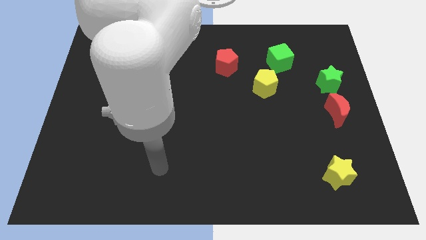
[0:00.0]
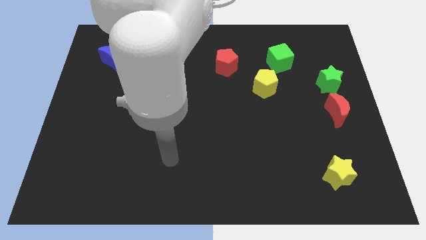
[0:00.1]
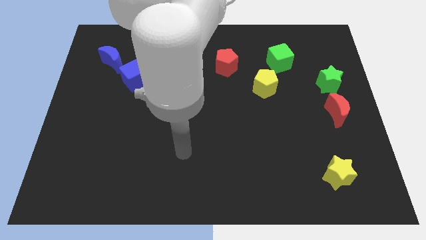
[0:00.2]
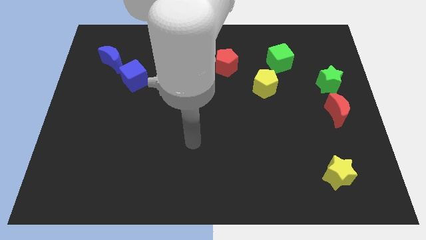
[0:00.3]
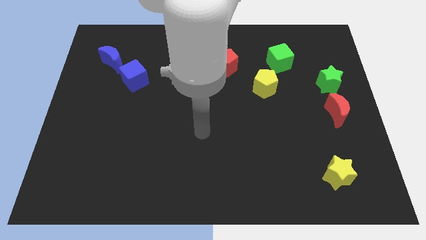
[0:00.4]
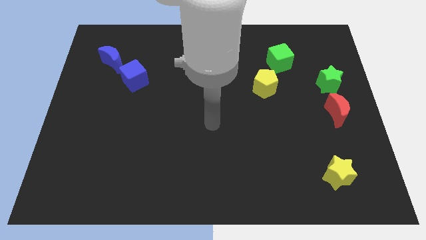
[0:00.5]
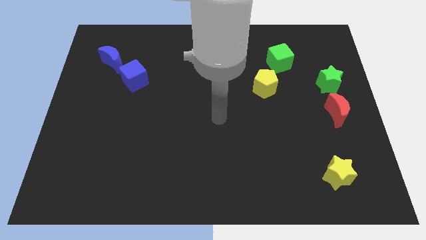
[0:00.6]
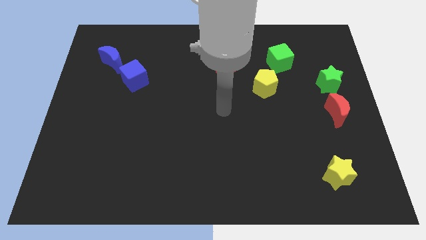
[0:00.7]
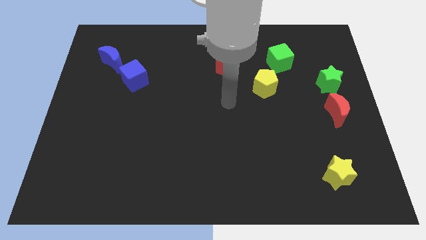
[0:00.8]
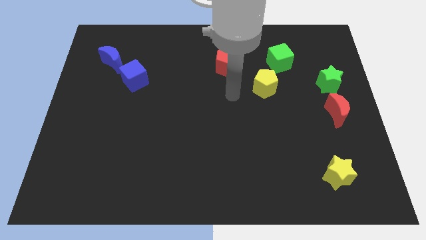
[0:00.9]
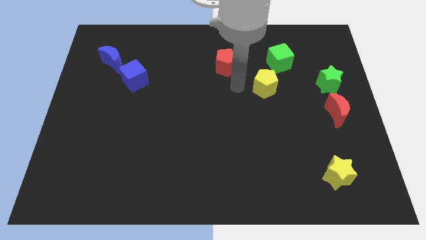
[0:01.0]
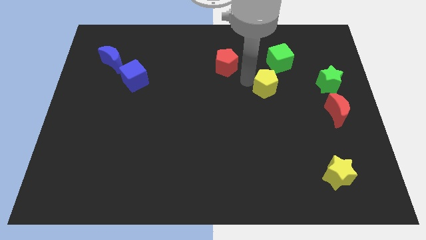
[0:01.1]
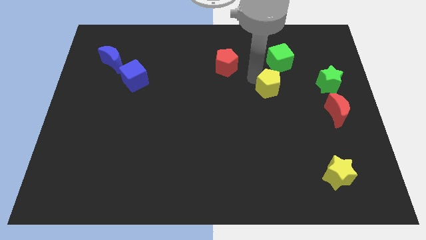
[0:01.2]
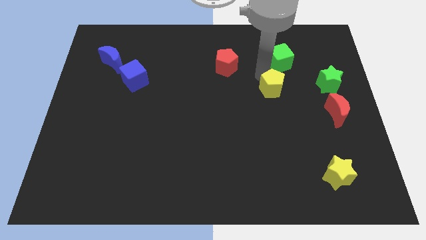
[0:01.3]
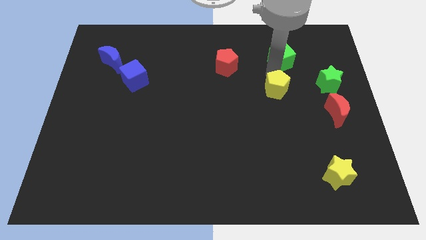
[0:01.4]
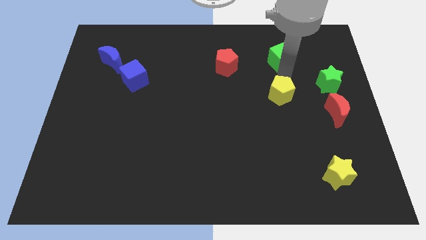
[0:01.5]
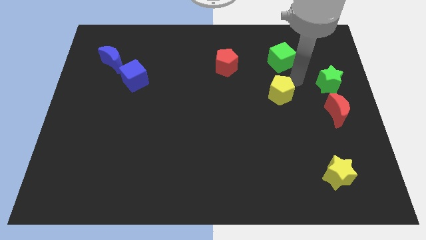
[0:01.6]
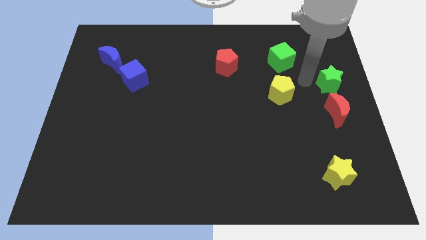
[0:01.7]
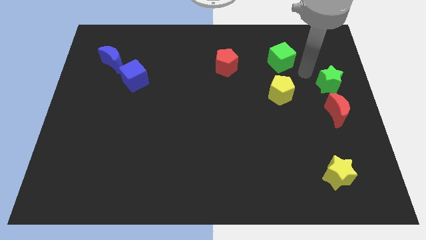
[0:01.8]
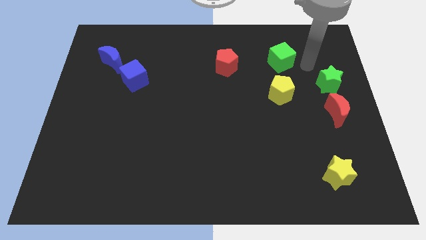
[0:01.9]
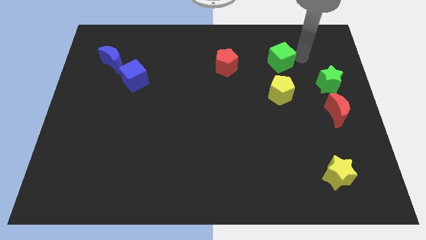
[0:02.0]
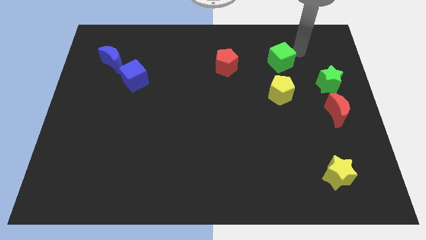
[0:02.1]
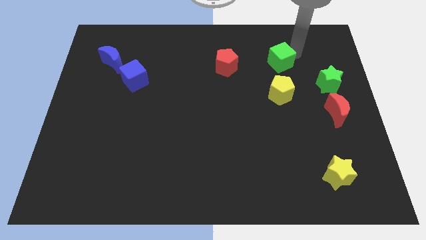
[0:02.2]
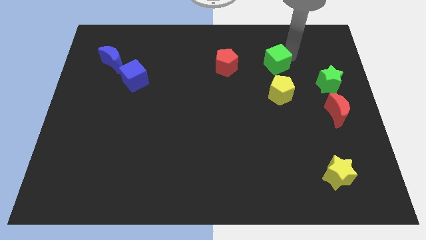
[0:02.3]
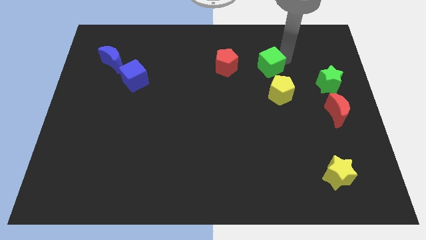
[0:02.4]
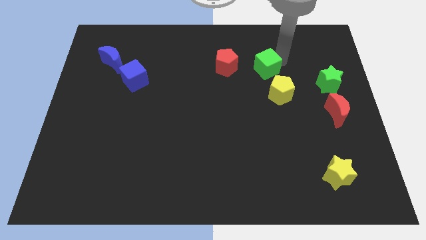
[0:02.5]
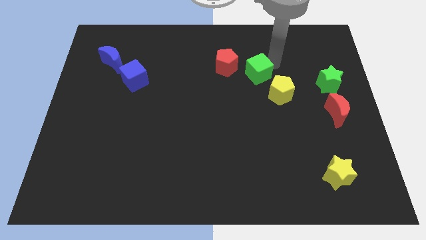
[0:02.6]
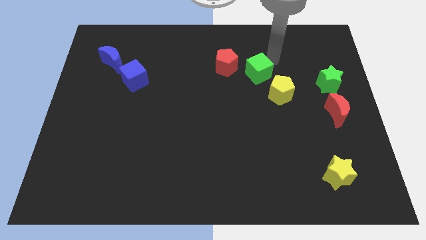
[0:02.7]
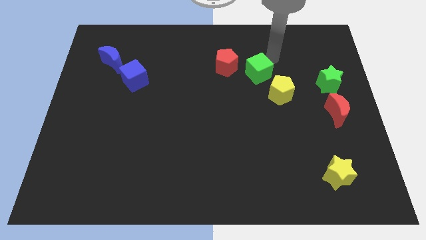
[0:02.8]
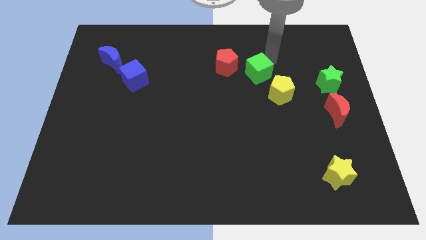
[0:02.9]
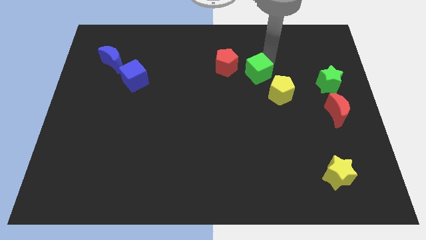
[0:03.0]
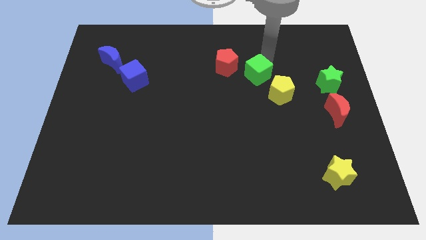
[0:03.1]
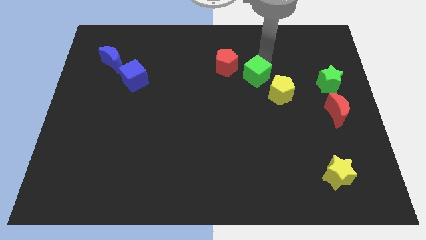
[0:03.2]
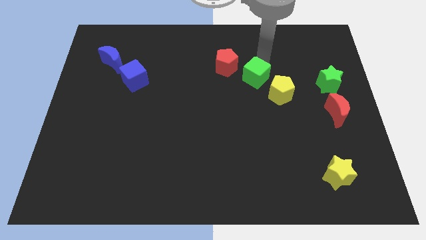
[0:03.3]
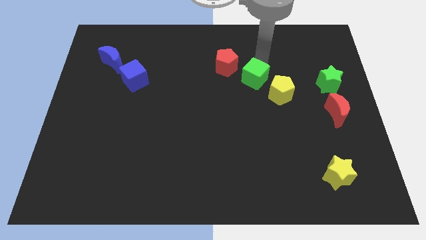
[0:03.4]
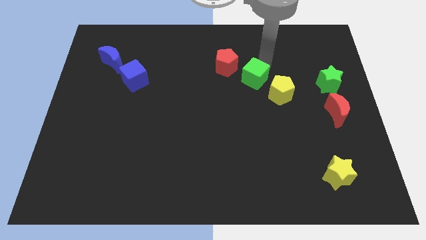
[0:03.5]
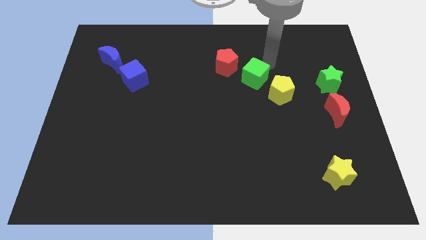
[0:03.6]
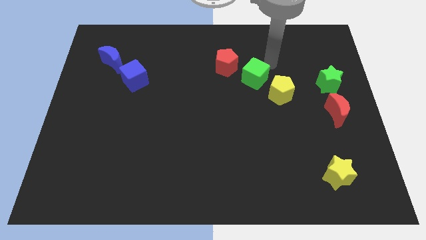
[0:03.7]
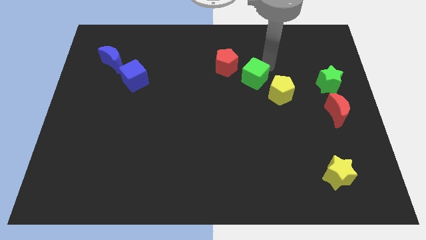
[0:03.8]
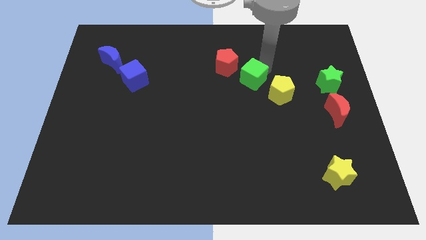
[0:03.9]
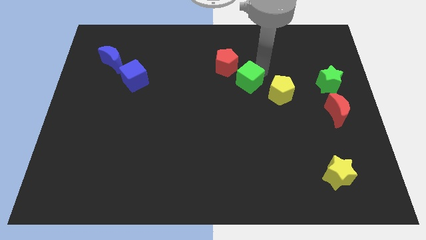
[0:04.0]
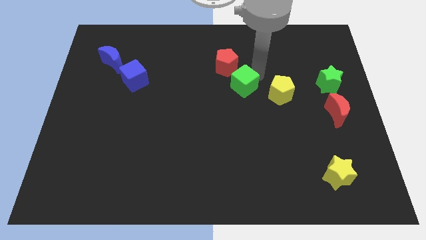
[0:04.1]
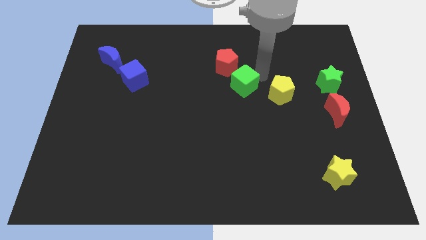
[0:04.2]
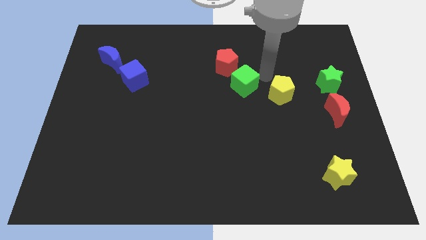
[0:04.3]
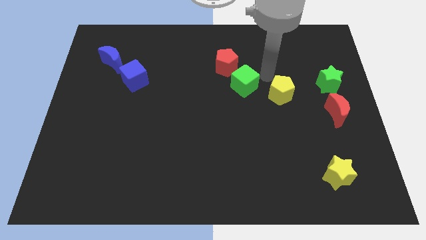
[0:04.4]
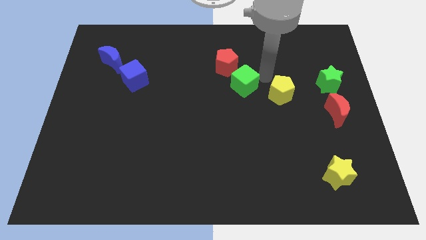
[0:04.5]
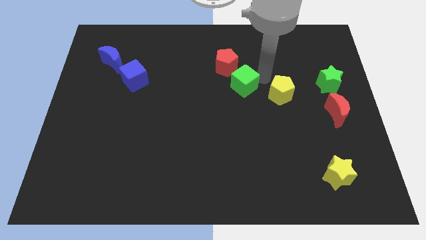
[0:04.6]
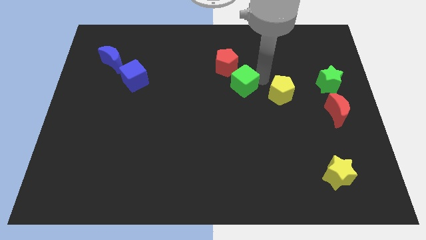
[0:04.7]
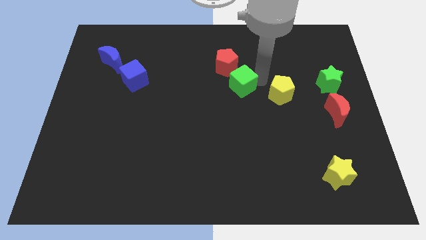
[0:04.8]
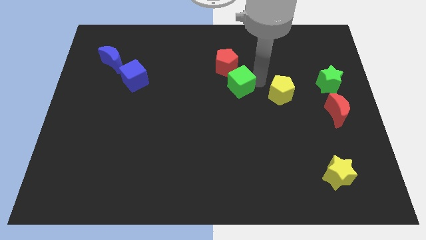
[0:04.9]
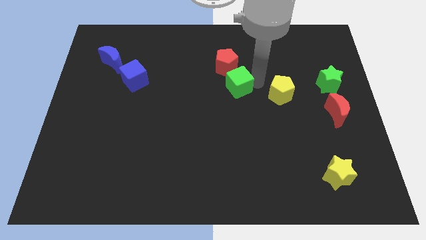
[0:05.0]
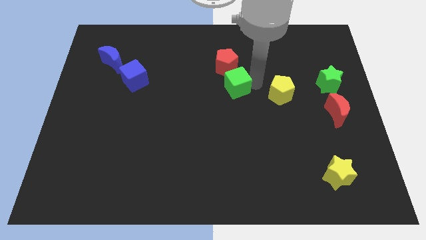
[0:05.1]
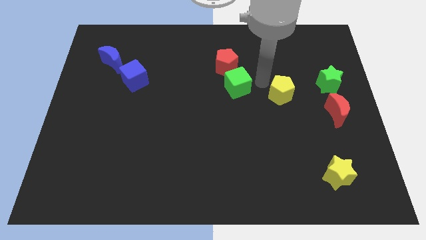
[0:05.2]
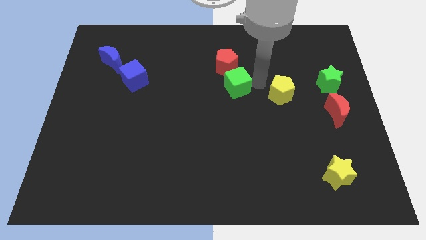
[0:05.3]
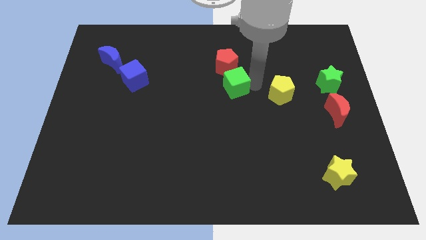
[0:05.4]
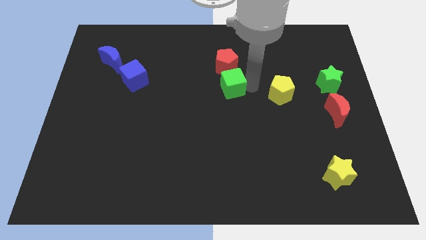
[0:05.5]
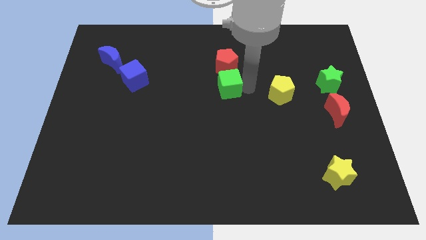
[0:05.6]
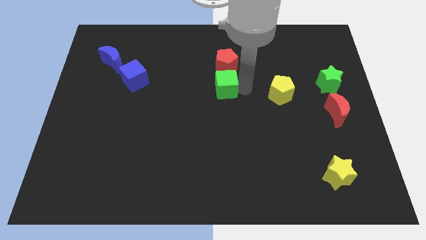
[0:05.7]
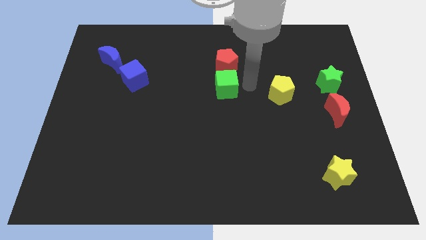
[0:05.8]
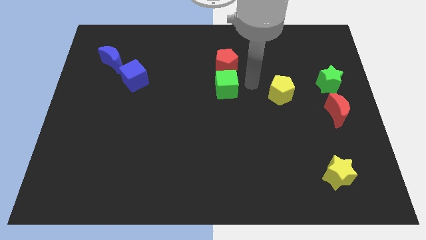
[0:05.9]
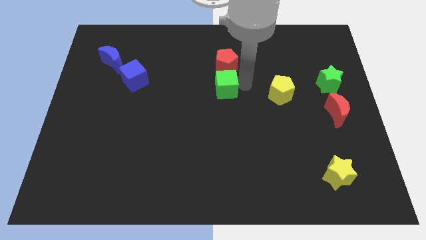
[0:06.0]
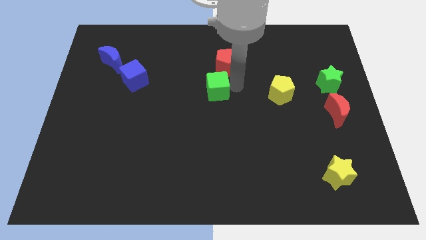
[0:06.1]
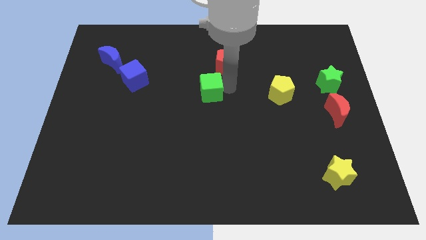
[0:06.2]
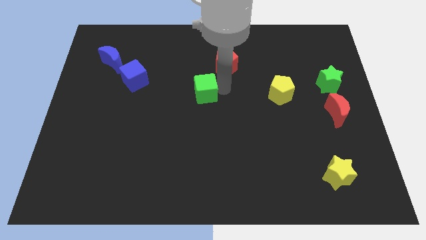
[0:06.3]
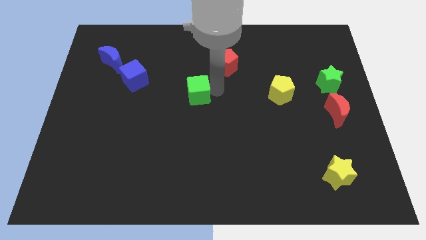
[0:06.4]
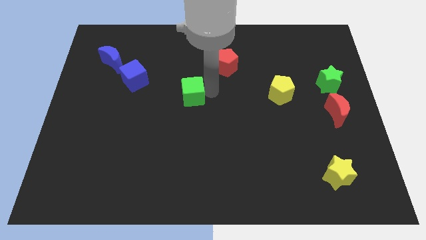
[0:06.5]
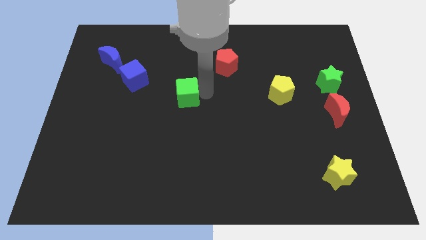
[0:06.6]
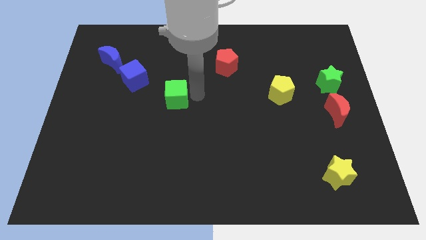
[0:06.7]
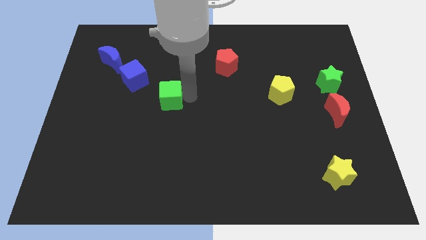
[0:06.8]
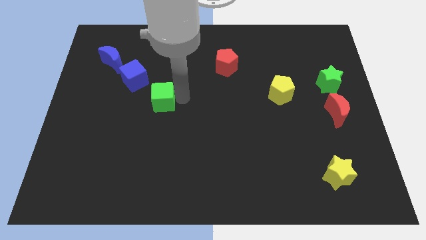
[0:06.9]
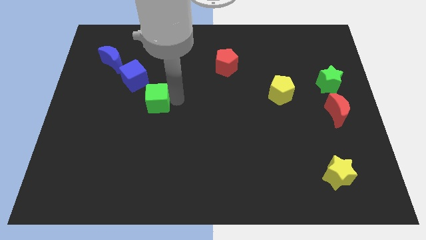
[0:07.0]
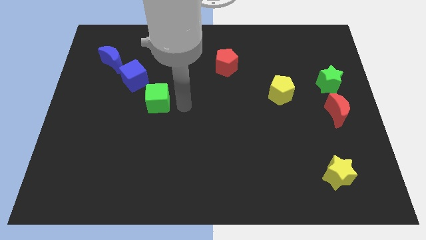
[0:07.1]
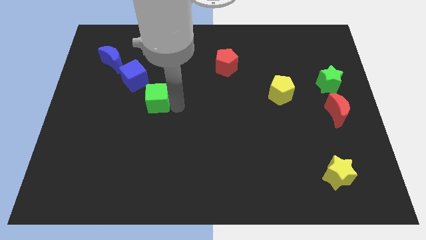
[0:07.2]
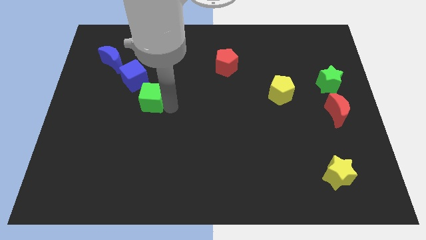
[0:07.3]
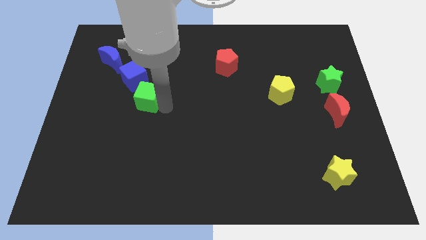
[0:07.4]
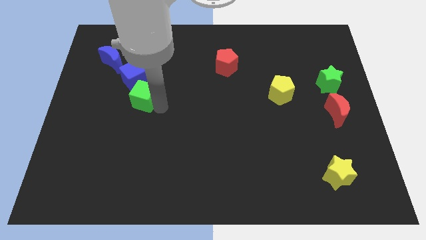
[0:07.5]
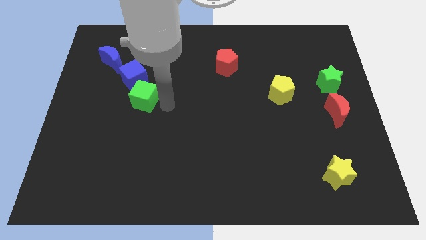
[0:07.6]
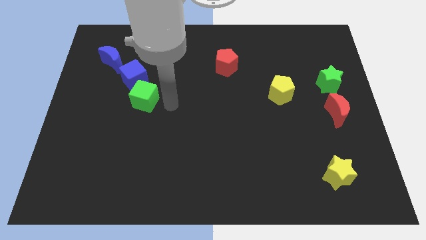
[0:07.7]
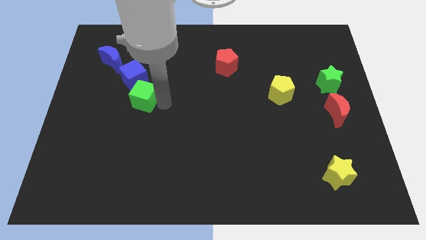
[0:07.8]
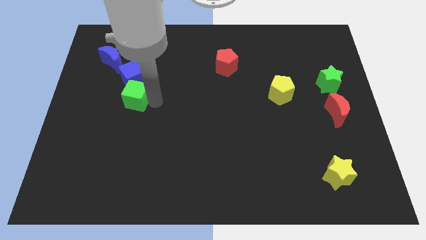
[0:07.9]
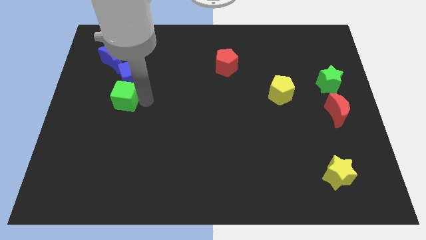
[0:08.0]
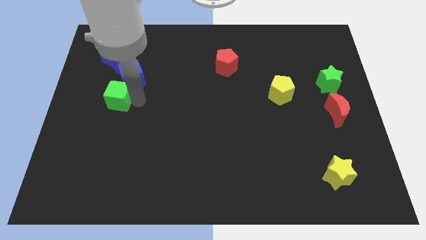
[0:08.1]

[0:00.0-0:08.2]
slide the green cube to the bottom side of the blue moon
